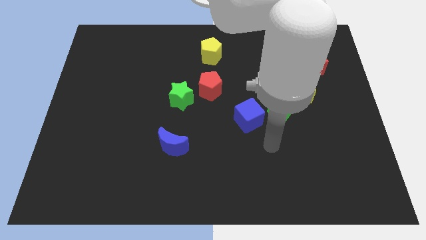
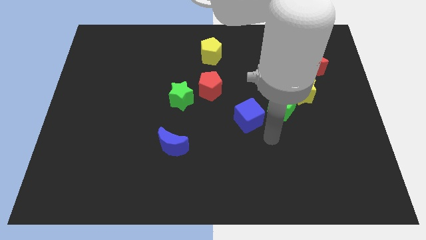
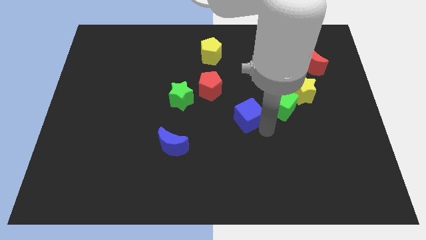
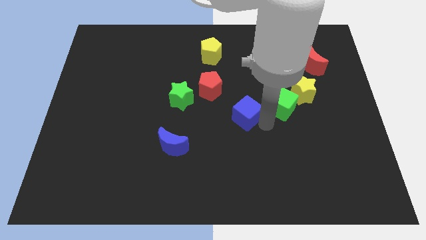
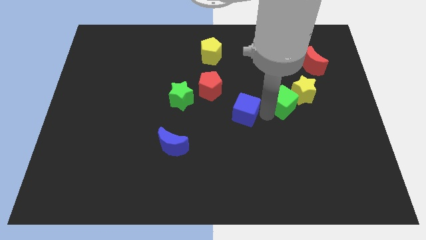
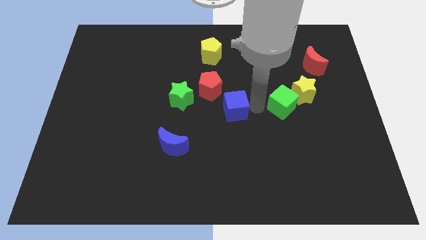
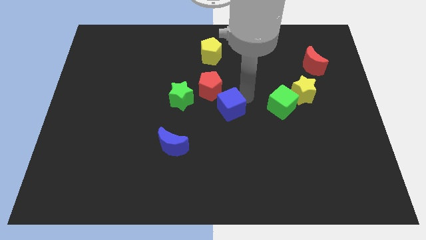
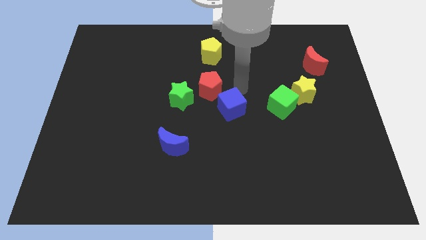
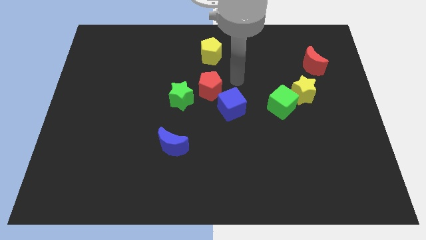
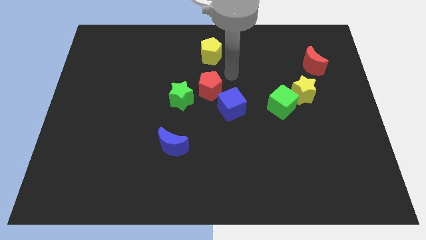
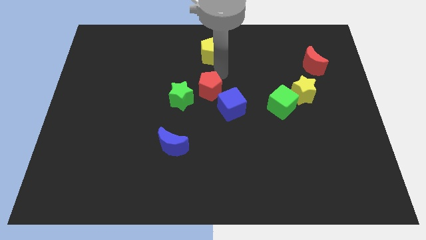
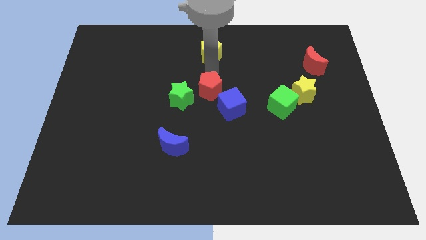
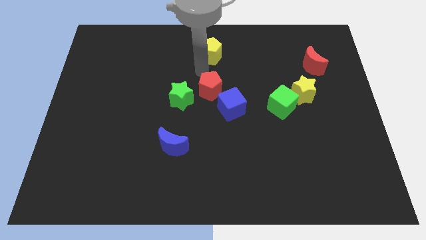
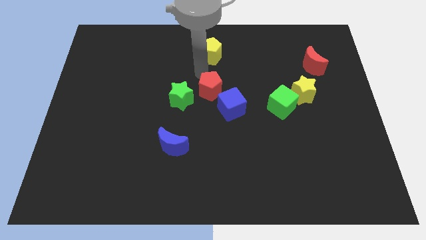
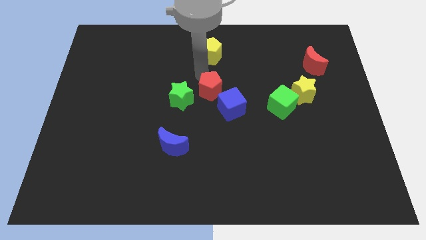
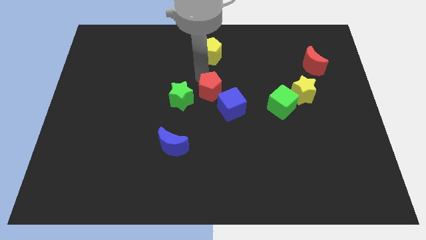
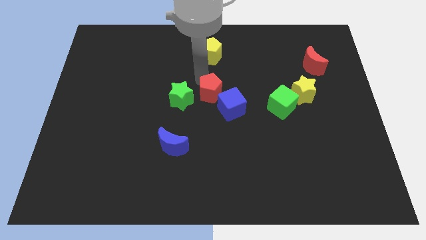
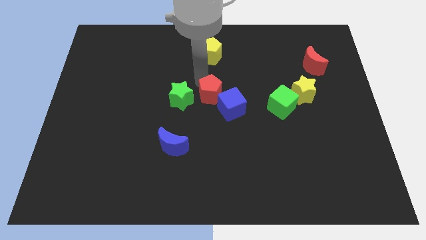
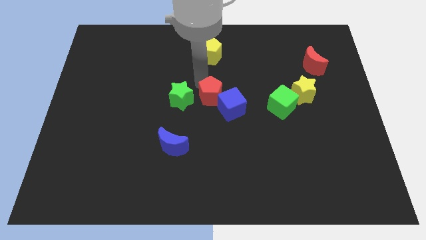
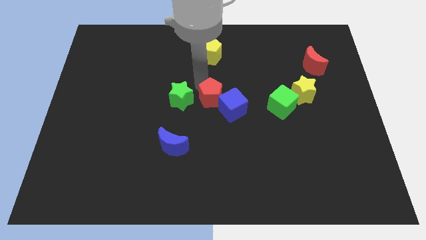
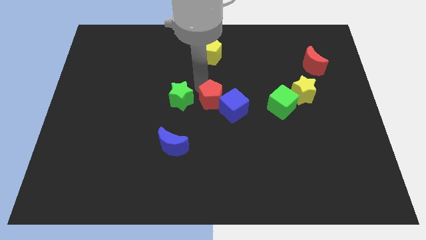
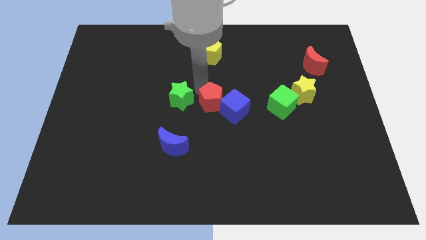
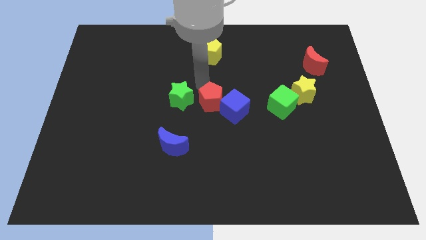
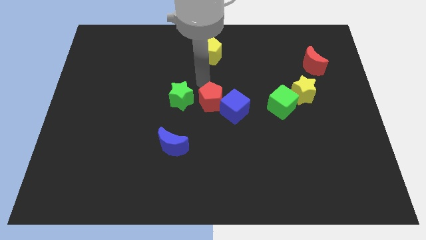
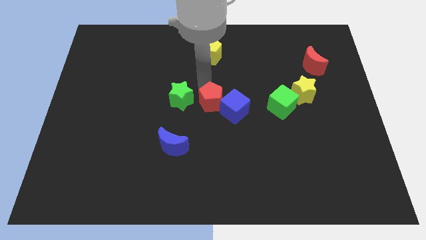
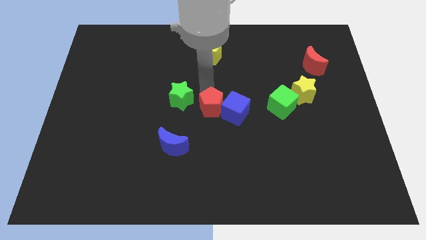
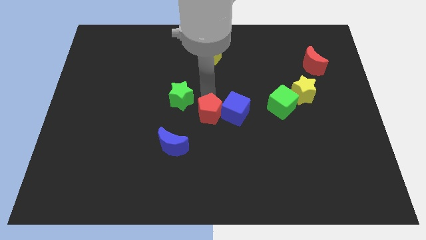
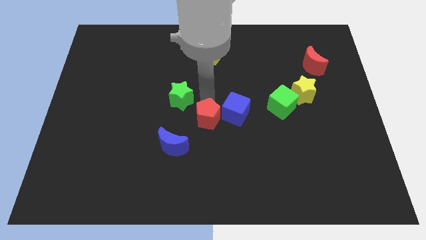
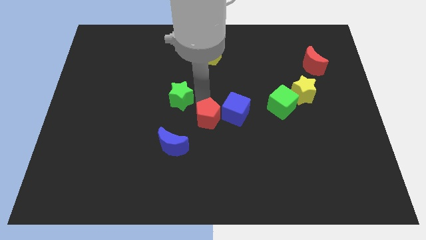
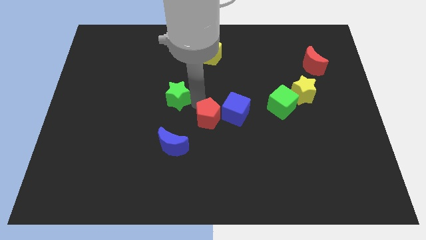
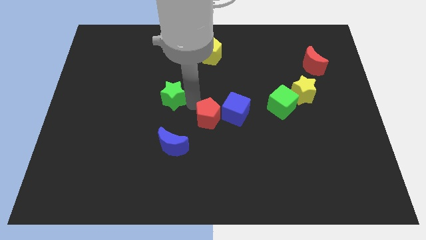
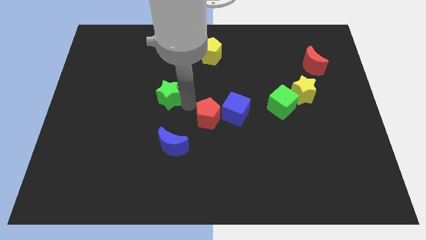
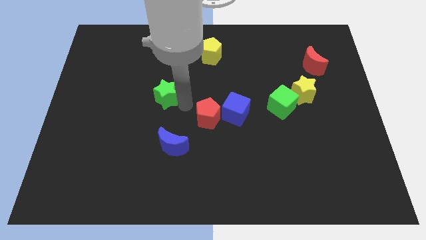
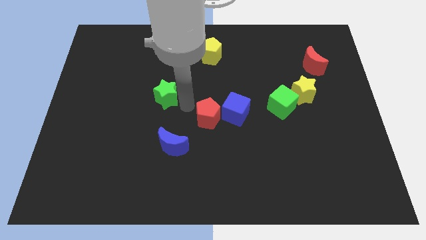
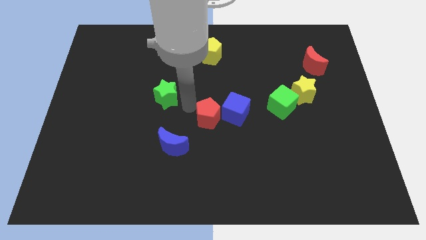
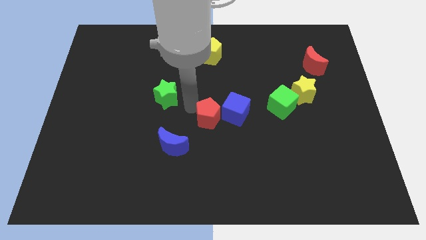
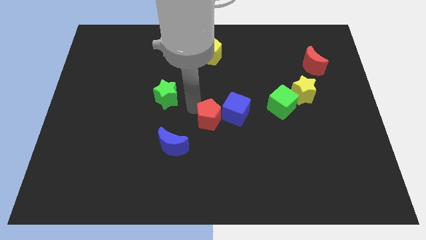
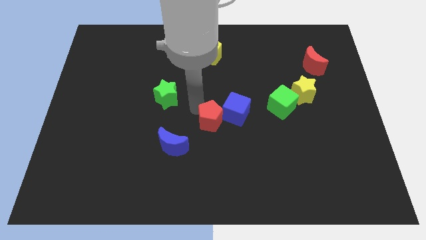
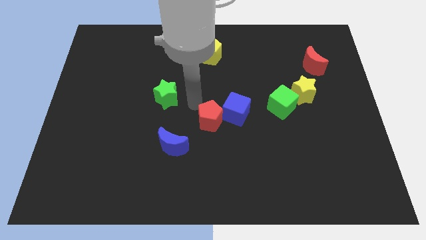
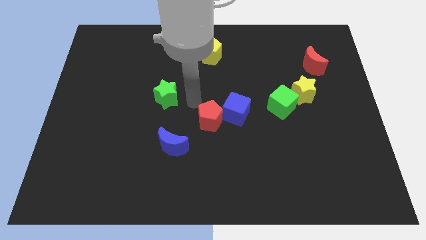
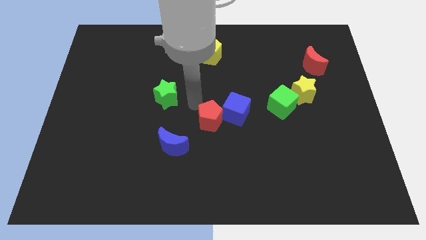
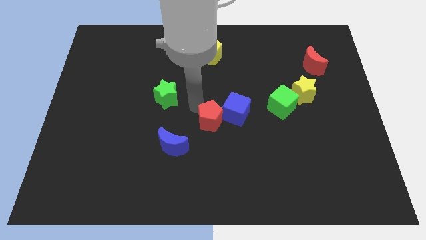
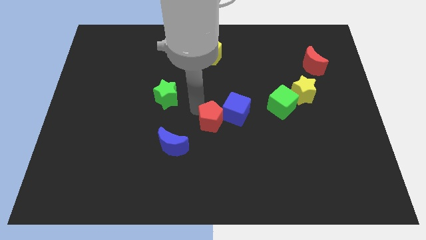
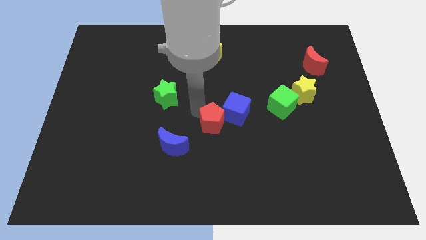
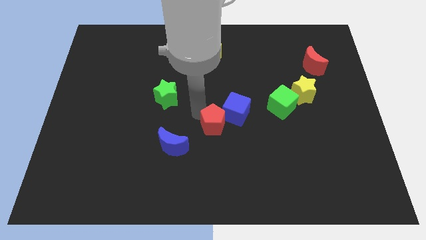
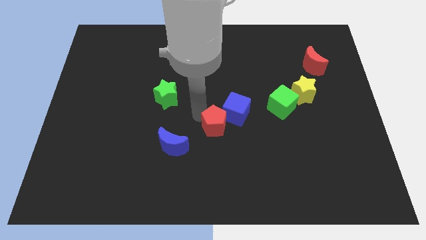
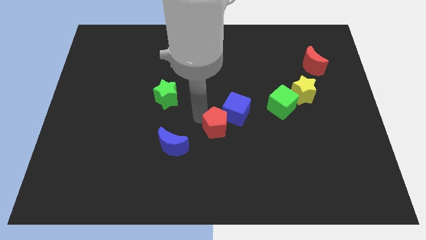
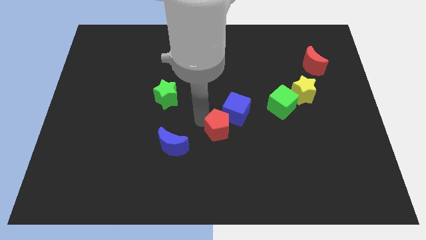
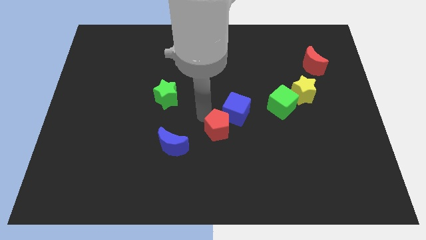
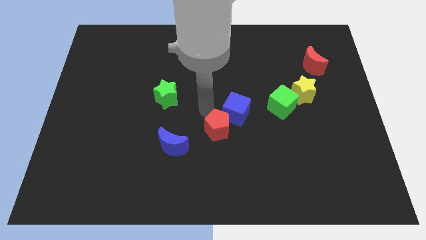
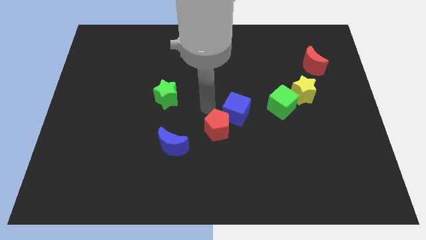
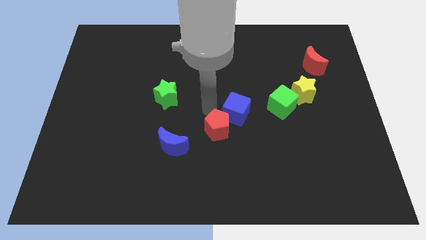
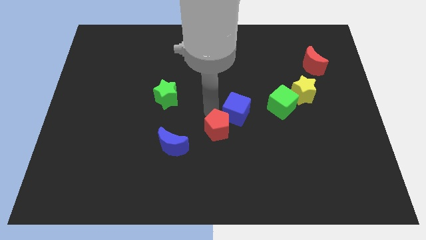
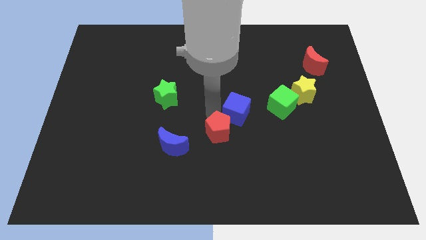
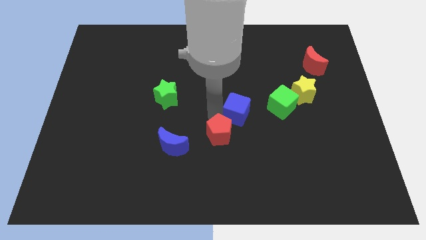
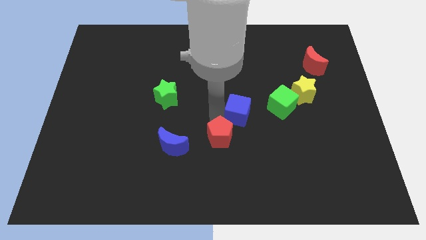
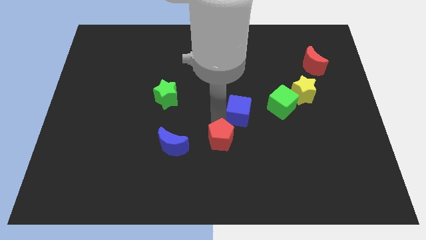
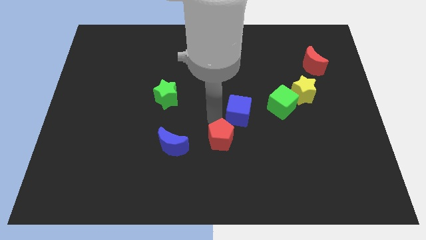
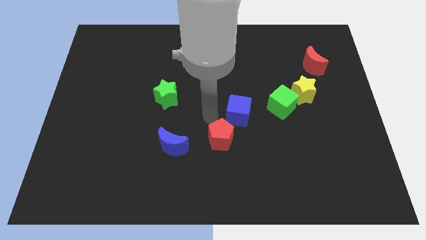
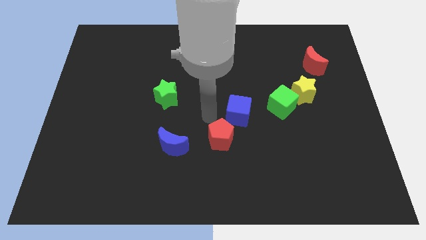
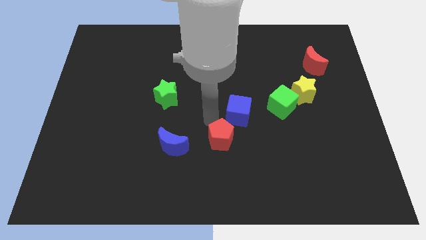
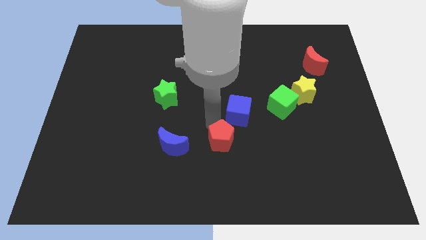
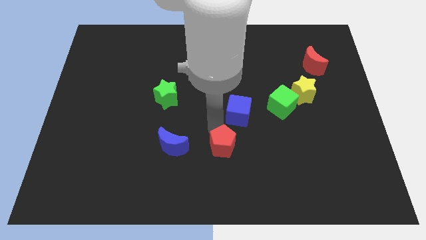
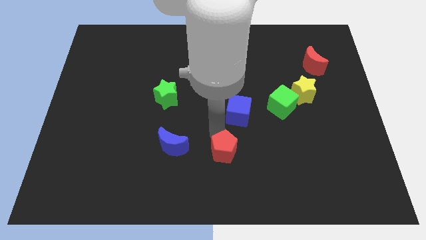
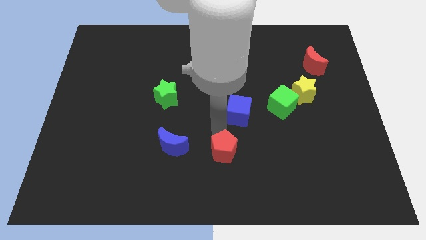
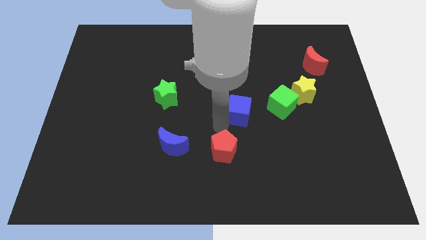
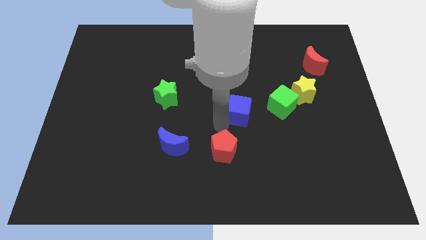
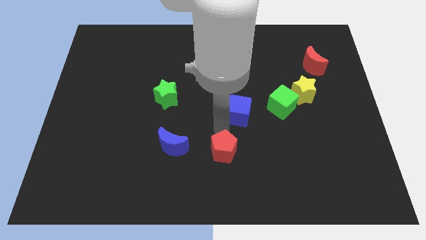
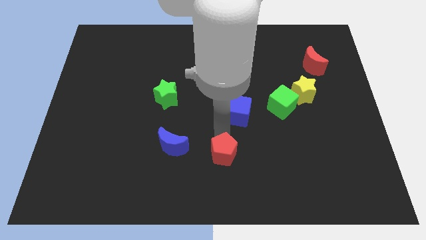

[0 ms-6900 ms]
put the red pentagon to the bottom side
